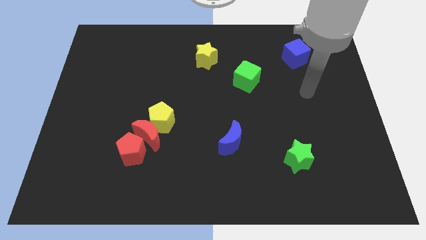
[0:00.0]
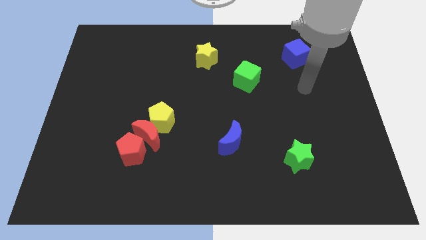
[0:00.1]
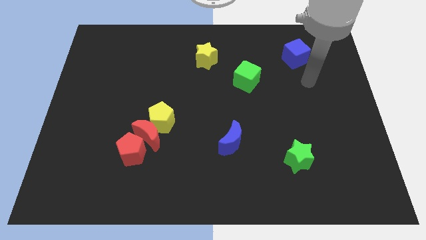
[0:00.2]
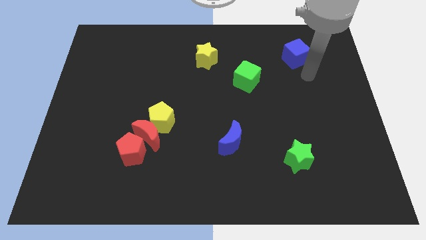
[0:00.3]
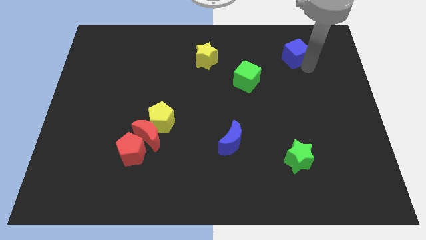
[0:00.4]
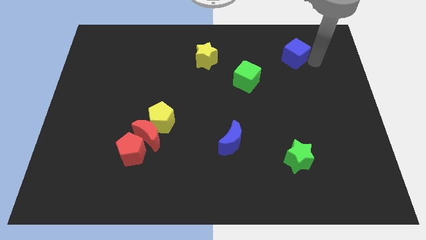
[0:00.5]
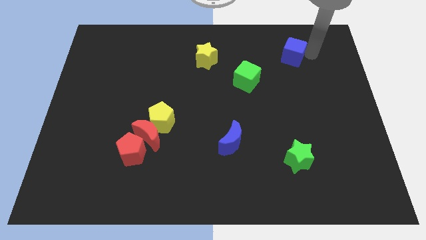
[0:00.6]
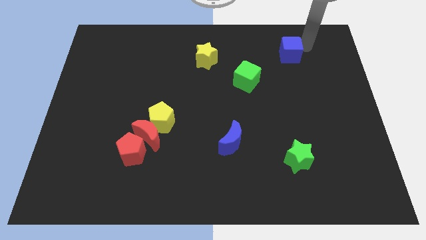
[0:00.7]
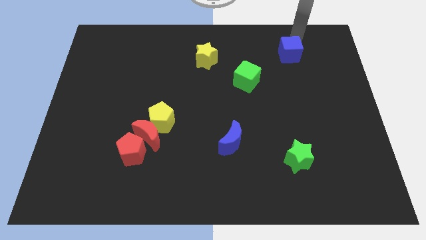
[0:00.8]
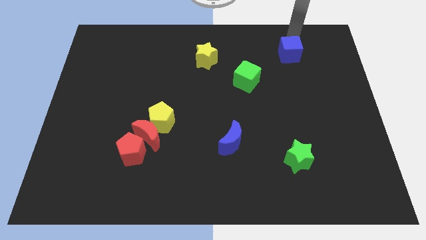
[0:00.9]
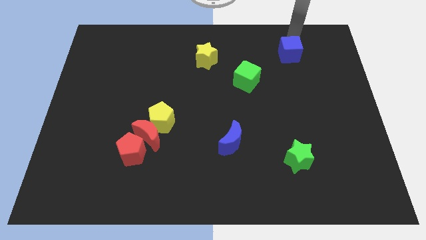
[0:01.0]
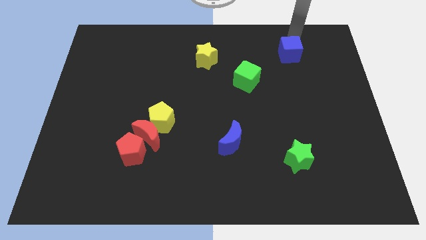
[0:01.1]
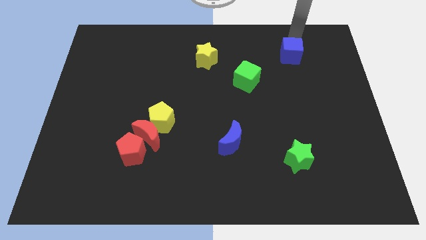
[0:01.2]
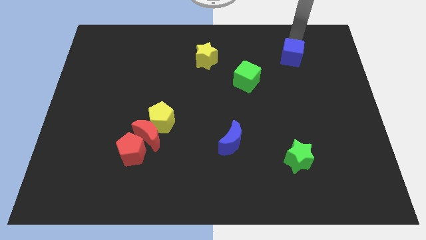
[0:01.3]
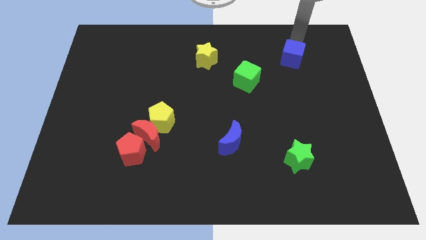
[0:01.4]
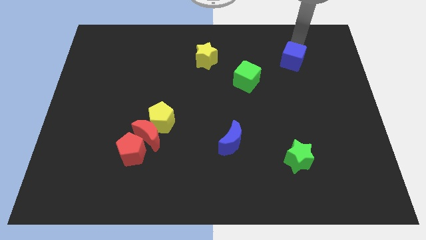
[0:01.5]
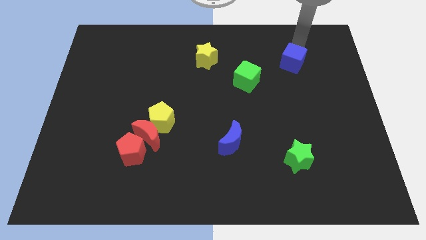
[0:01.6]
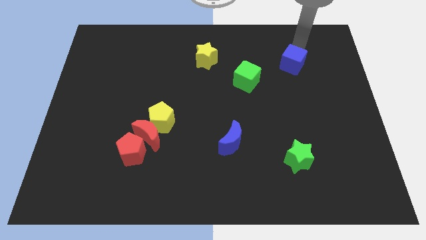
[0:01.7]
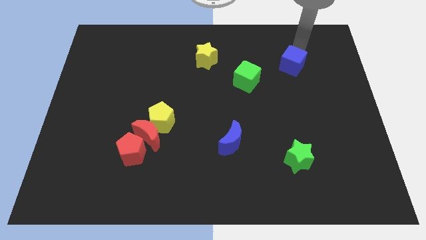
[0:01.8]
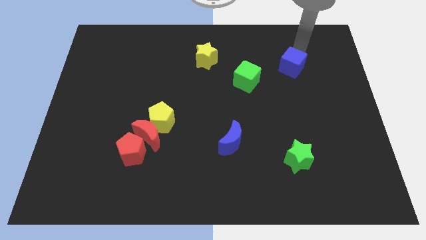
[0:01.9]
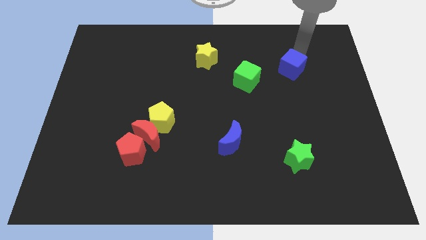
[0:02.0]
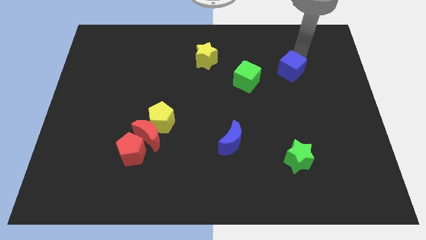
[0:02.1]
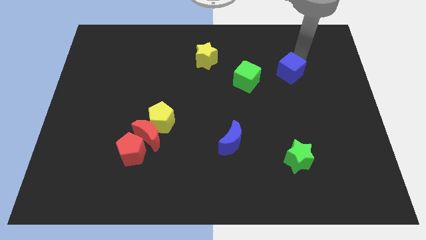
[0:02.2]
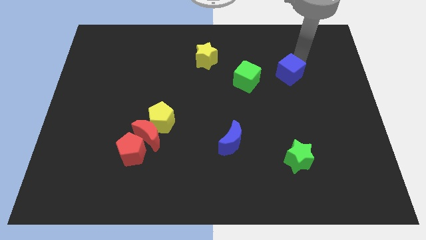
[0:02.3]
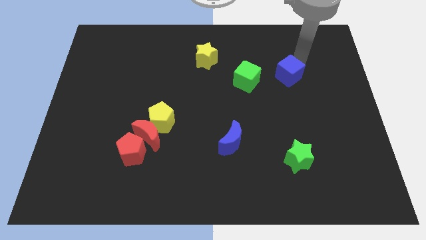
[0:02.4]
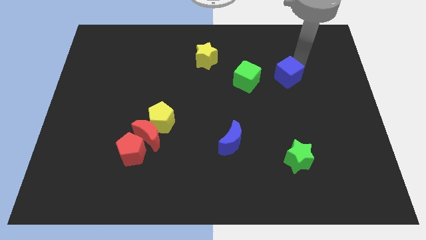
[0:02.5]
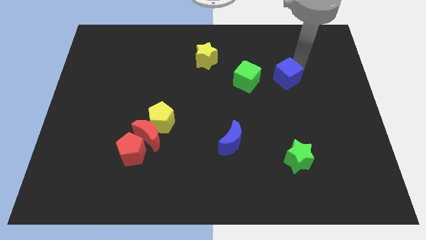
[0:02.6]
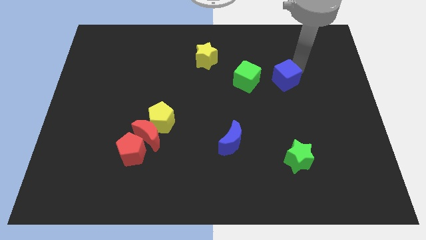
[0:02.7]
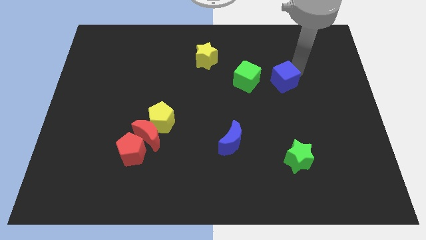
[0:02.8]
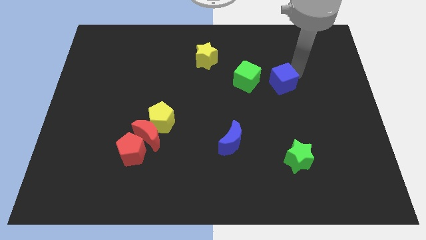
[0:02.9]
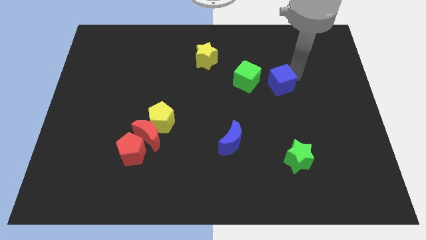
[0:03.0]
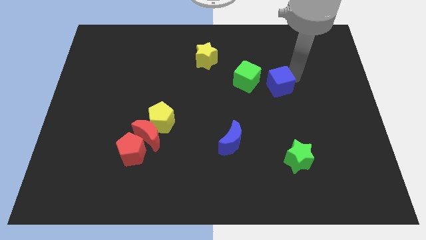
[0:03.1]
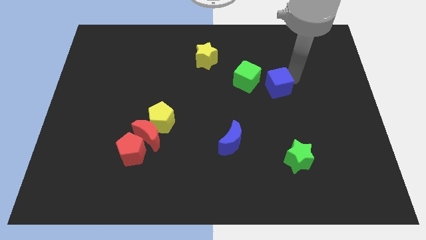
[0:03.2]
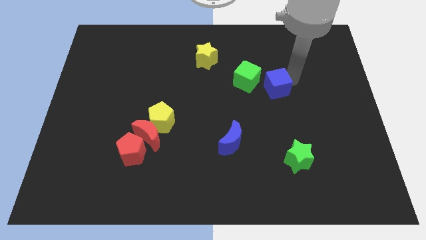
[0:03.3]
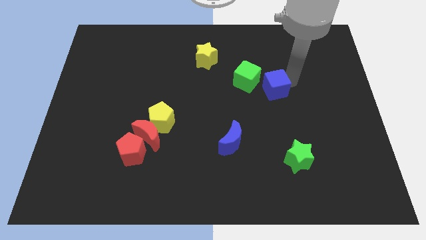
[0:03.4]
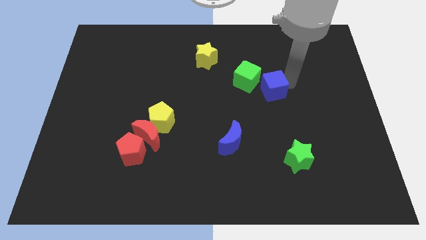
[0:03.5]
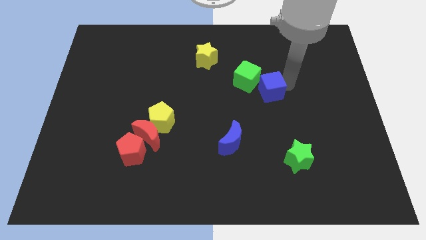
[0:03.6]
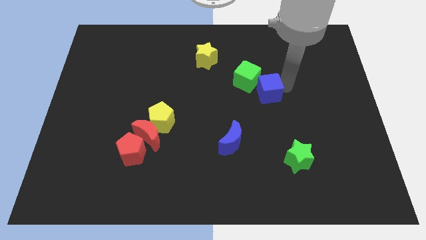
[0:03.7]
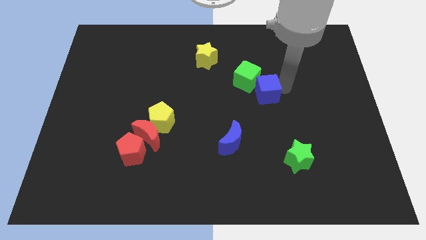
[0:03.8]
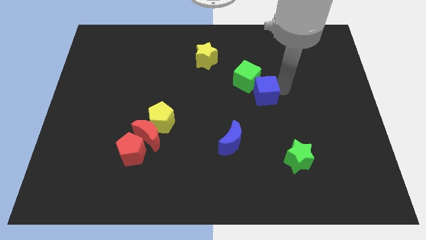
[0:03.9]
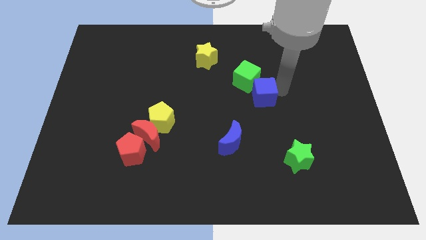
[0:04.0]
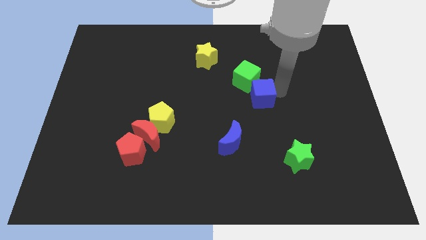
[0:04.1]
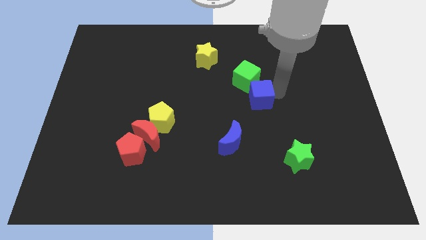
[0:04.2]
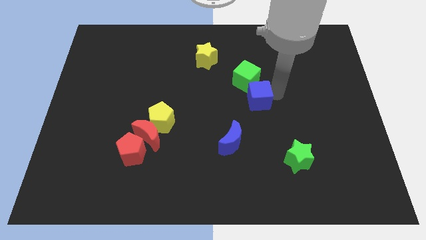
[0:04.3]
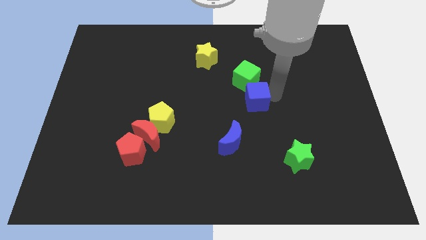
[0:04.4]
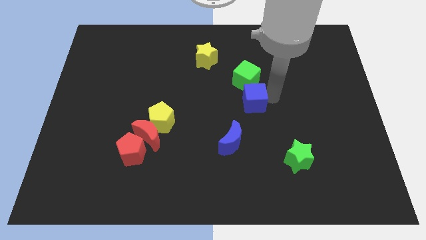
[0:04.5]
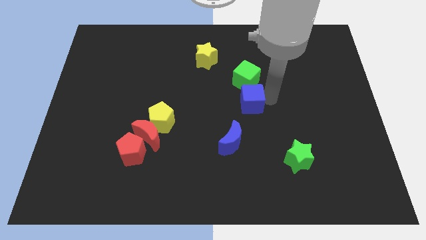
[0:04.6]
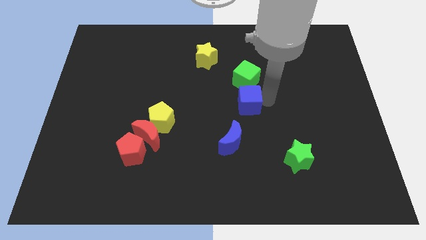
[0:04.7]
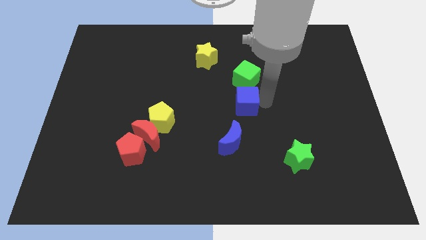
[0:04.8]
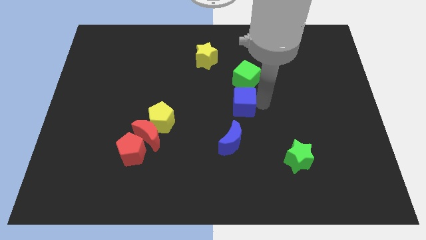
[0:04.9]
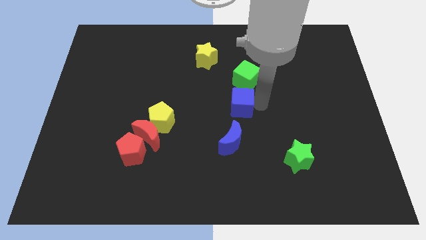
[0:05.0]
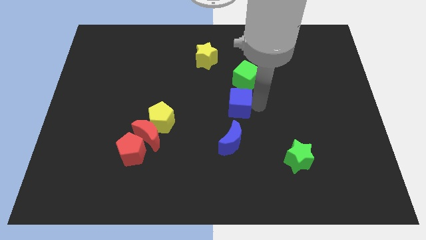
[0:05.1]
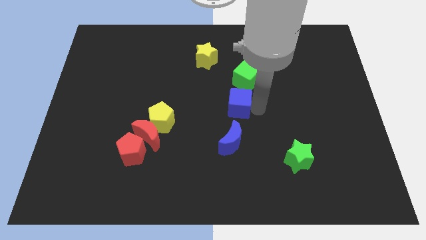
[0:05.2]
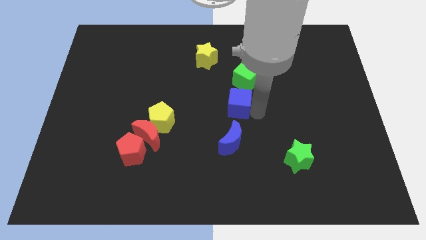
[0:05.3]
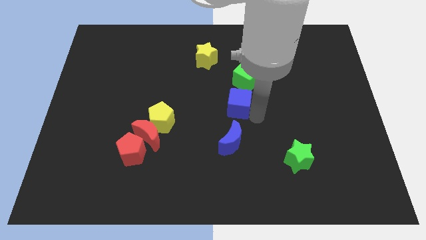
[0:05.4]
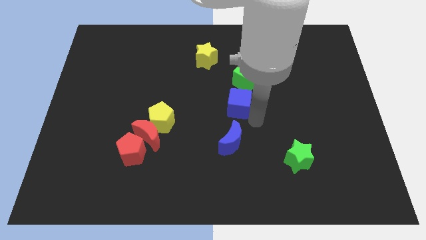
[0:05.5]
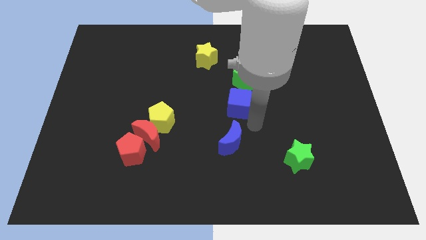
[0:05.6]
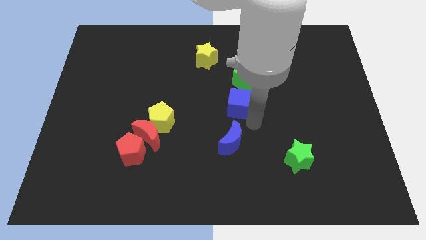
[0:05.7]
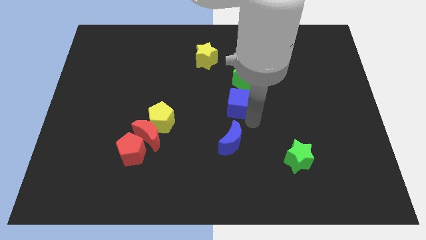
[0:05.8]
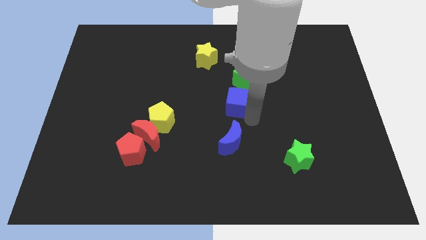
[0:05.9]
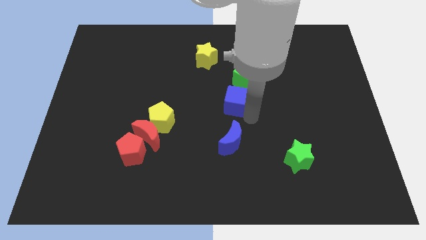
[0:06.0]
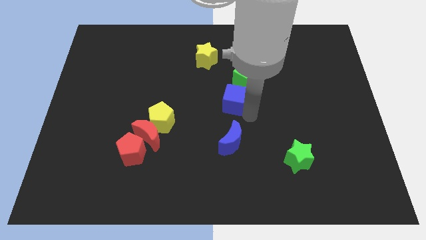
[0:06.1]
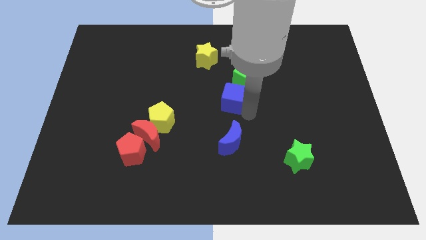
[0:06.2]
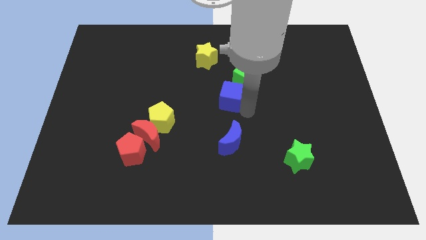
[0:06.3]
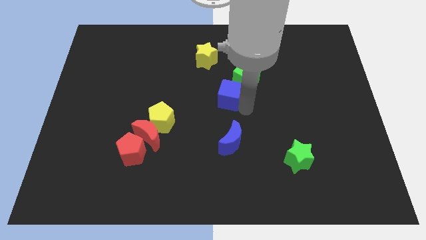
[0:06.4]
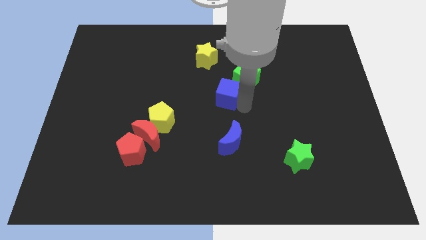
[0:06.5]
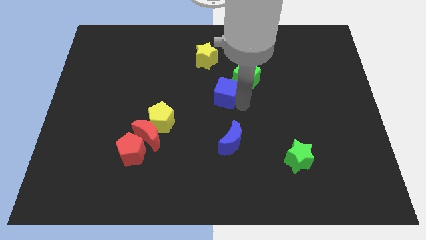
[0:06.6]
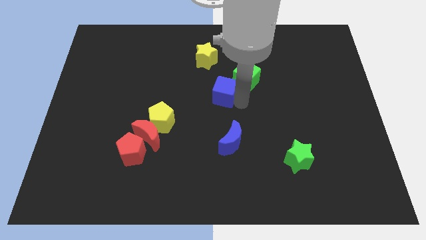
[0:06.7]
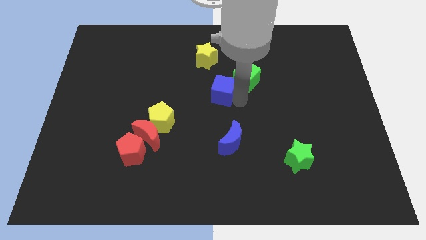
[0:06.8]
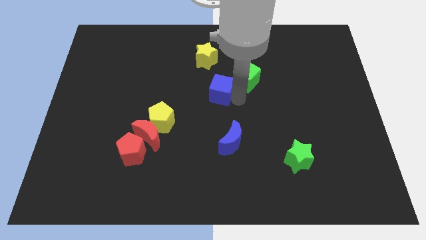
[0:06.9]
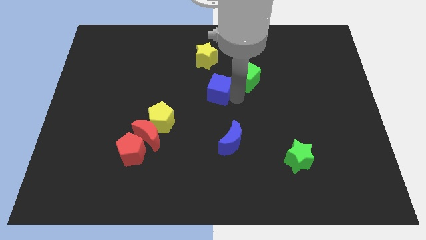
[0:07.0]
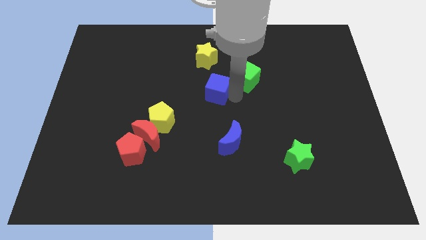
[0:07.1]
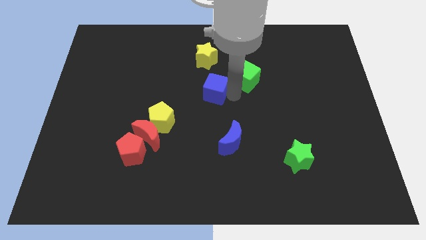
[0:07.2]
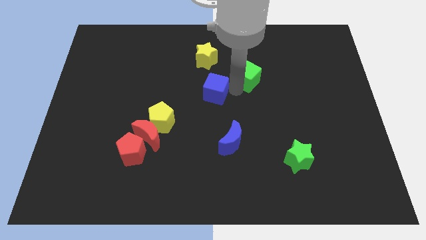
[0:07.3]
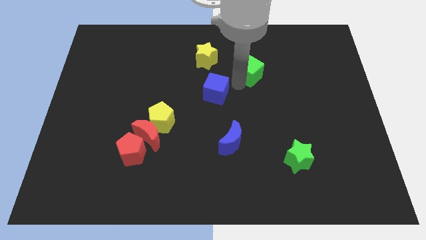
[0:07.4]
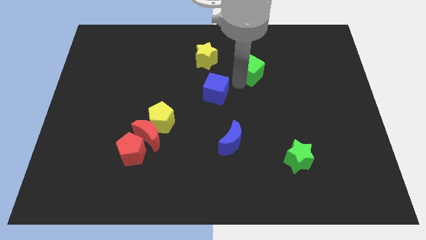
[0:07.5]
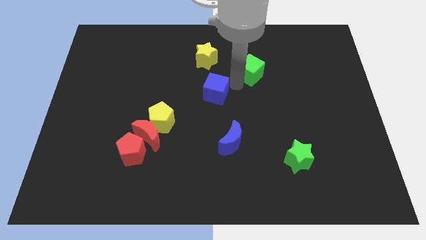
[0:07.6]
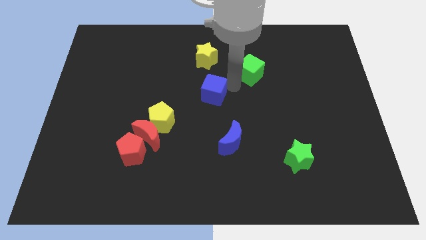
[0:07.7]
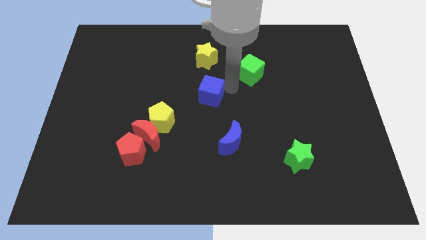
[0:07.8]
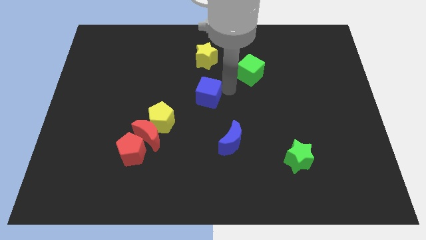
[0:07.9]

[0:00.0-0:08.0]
put the blue cube diagonally up and to the right of the yellow pentagon
